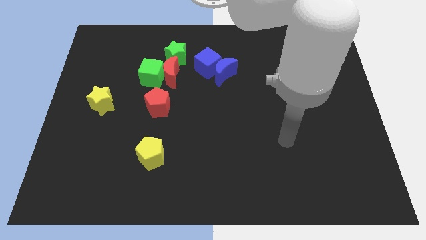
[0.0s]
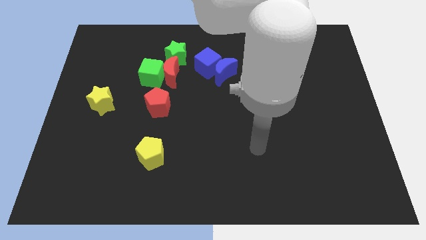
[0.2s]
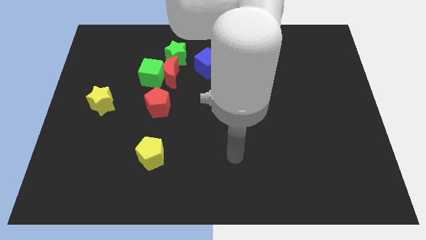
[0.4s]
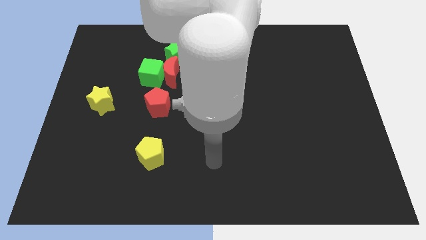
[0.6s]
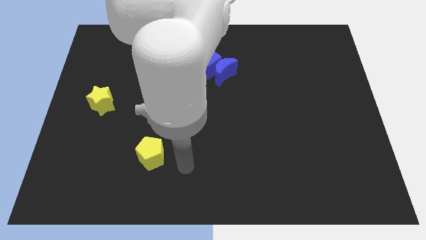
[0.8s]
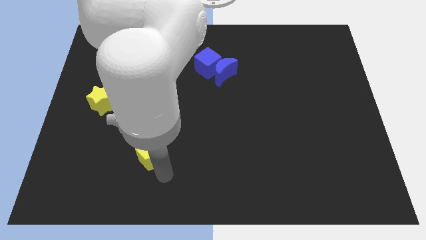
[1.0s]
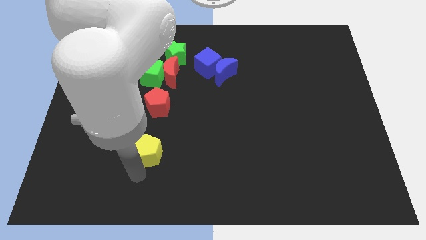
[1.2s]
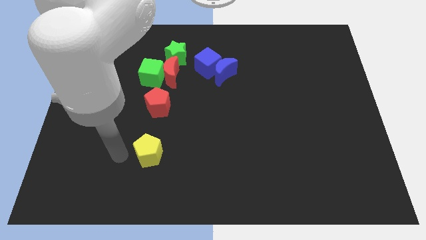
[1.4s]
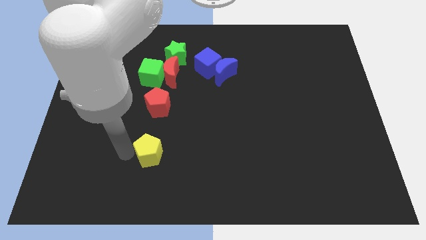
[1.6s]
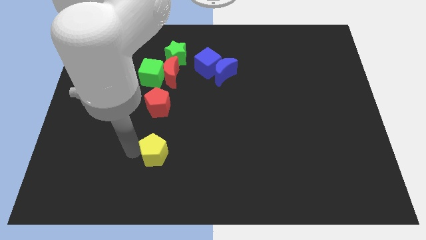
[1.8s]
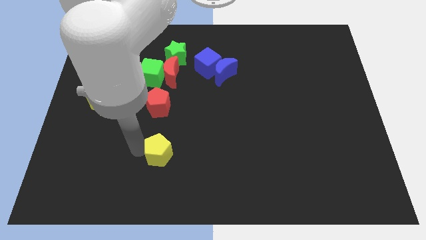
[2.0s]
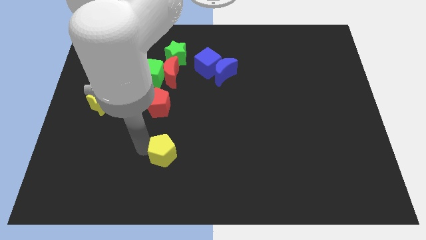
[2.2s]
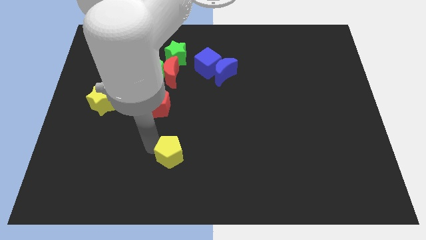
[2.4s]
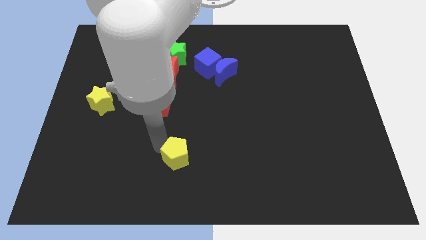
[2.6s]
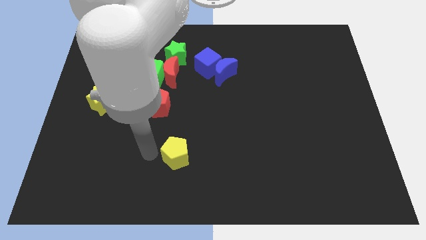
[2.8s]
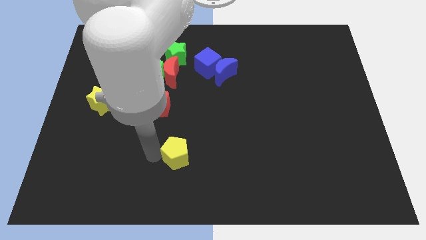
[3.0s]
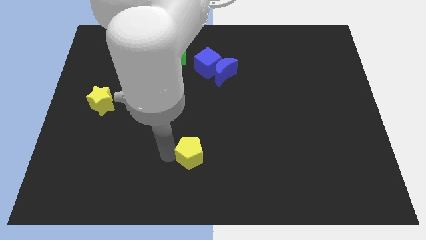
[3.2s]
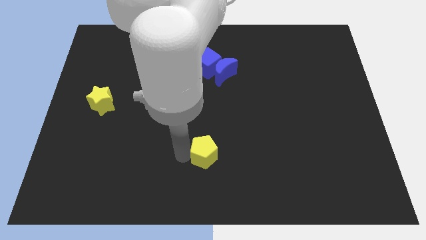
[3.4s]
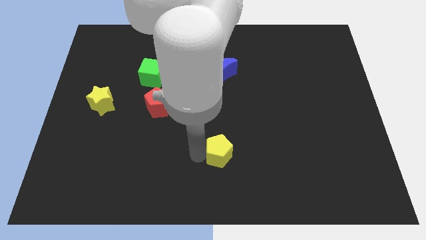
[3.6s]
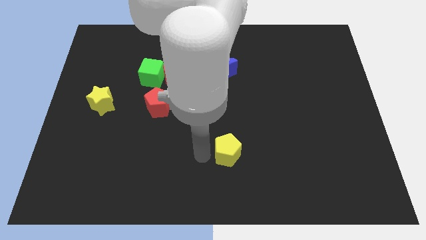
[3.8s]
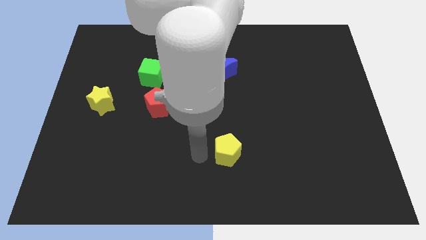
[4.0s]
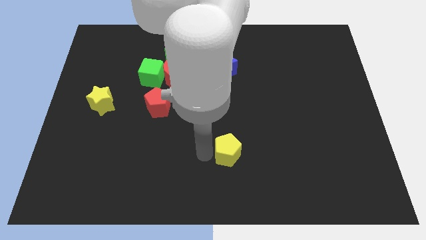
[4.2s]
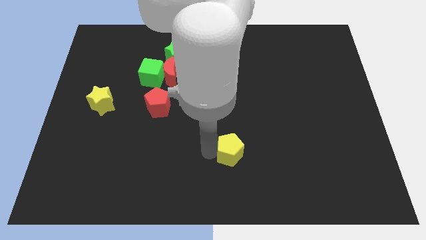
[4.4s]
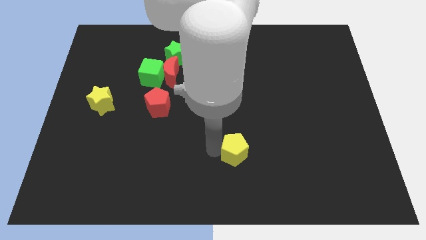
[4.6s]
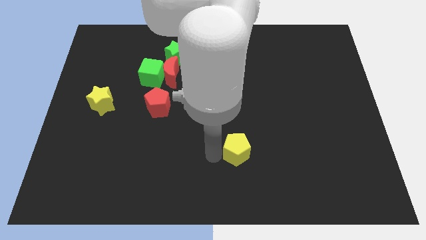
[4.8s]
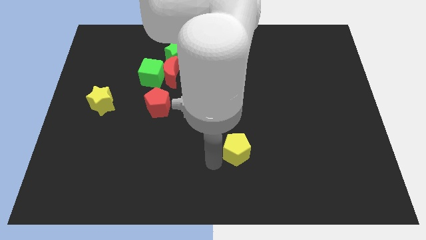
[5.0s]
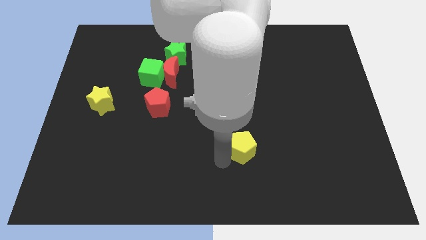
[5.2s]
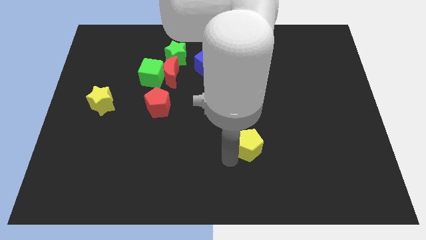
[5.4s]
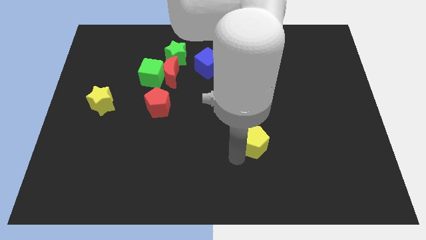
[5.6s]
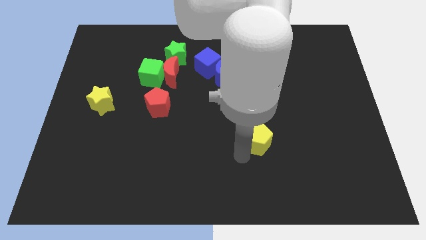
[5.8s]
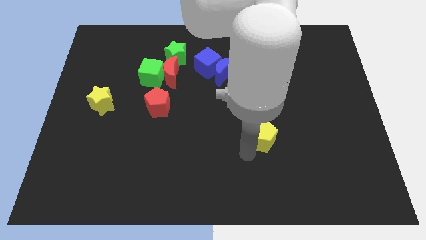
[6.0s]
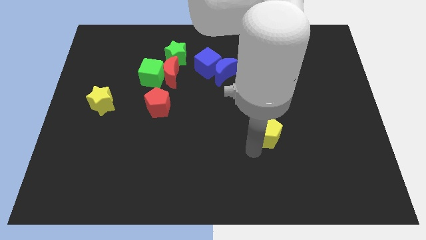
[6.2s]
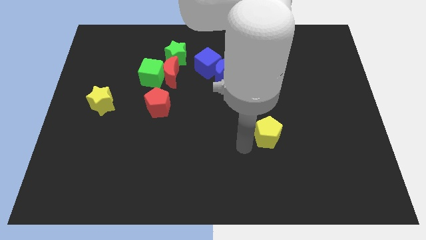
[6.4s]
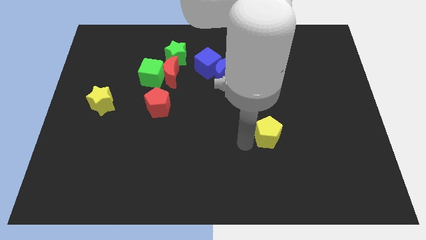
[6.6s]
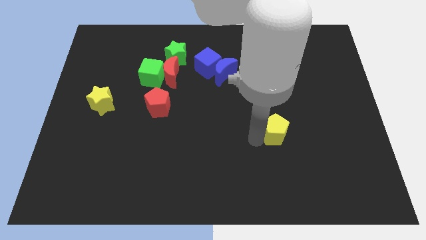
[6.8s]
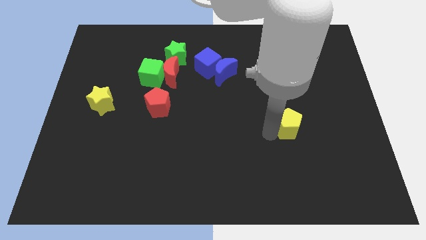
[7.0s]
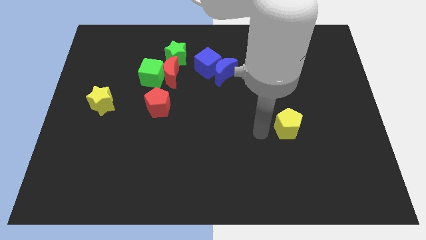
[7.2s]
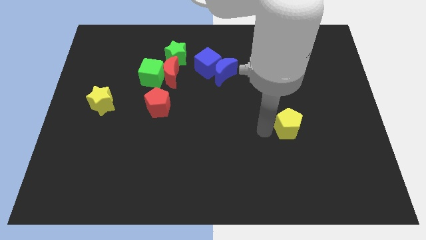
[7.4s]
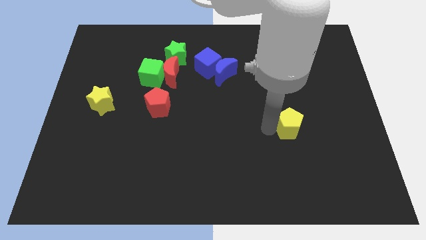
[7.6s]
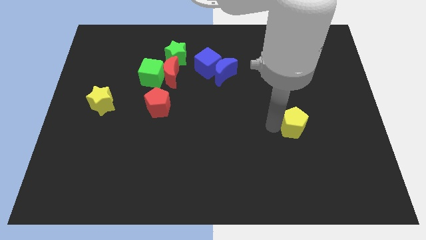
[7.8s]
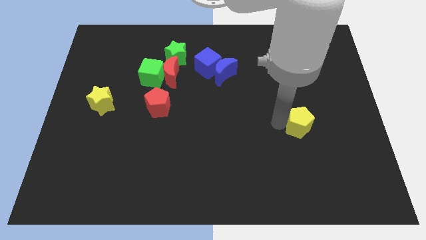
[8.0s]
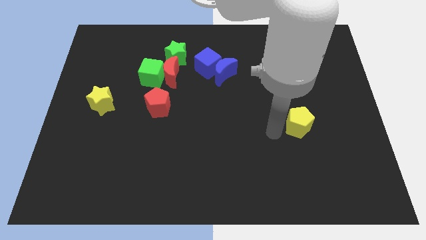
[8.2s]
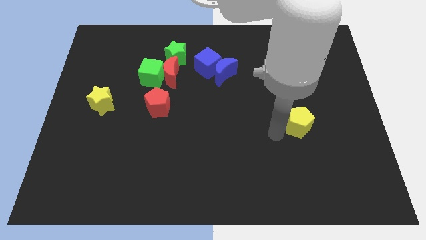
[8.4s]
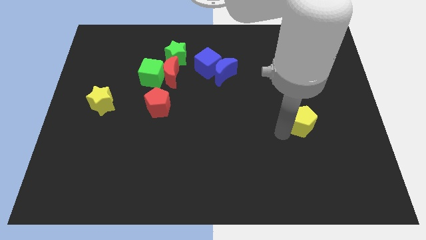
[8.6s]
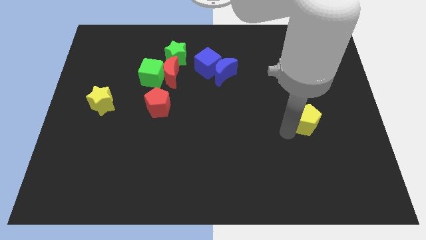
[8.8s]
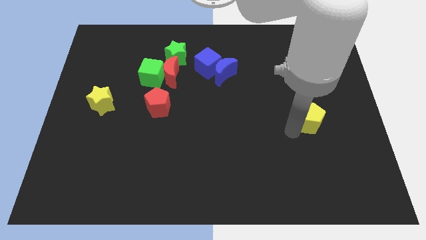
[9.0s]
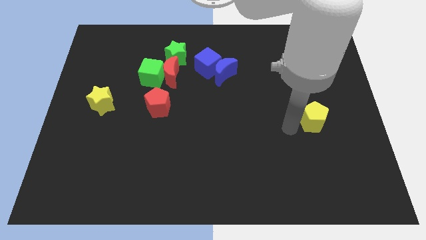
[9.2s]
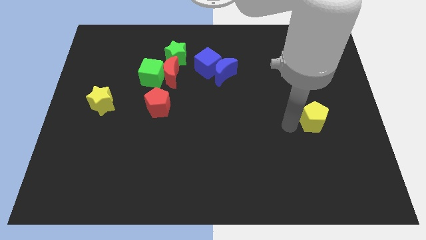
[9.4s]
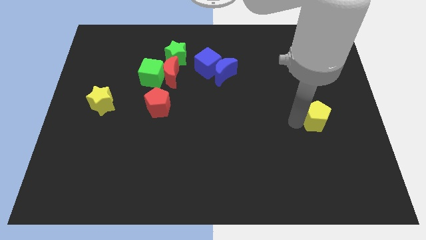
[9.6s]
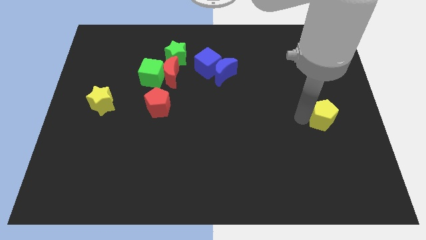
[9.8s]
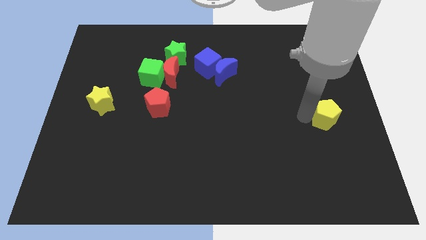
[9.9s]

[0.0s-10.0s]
put the yellow pentagon to the right side

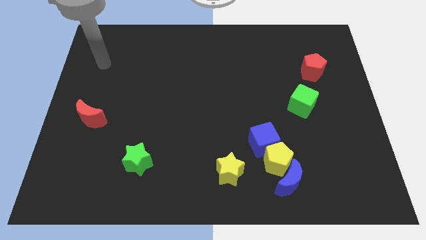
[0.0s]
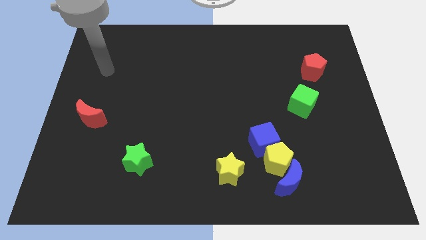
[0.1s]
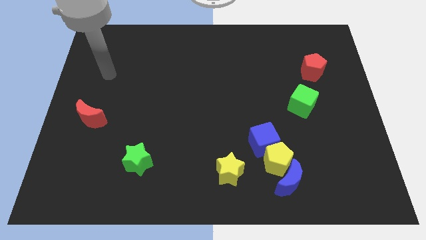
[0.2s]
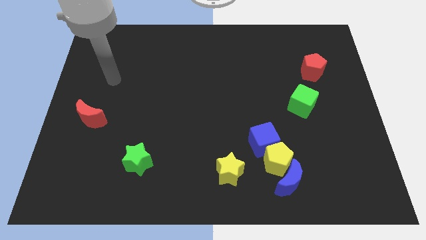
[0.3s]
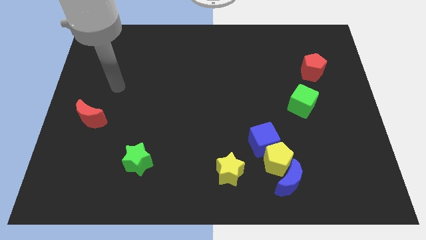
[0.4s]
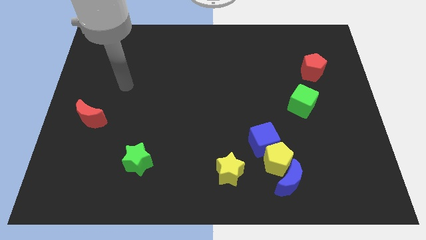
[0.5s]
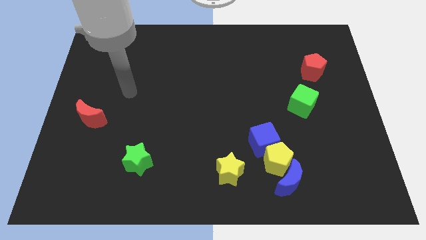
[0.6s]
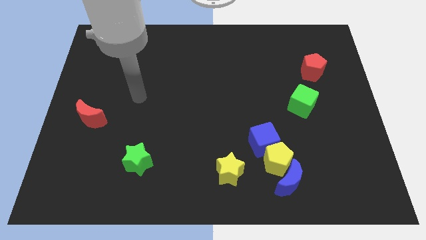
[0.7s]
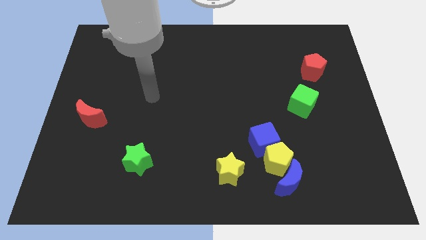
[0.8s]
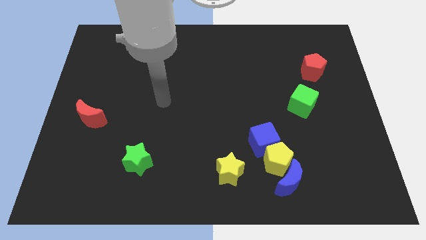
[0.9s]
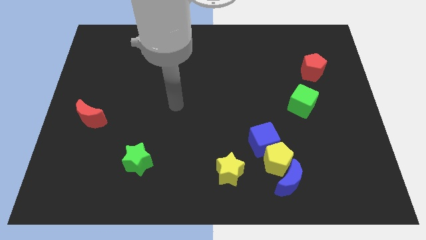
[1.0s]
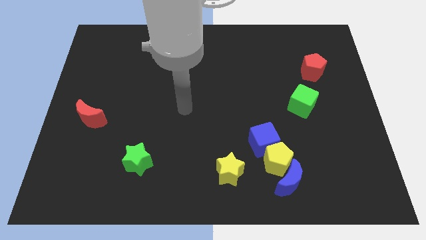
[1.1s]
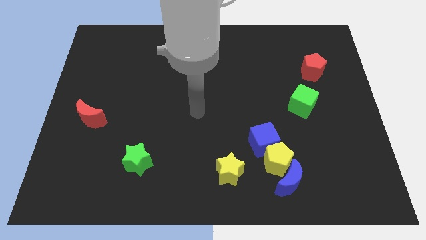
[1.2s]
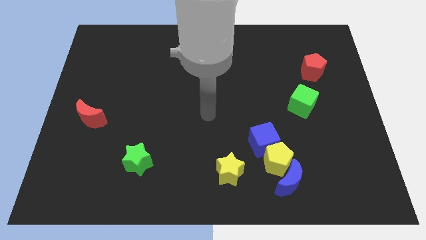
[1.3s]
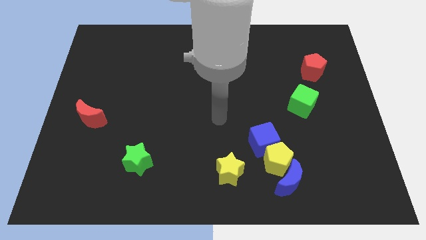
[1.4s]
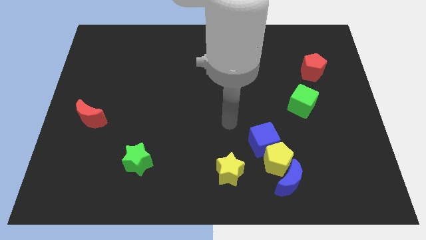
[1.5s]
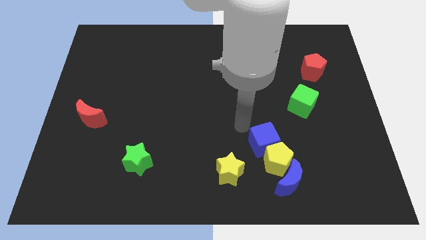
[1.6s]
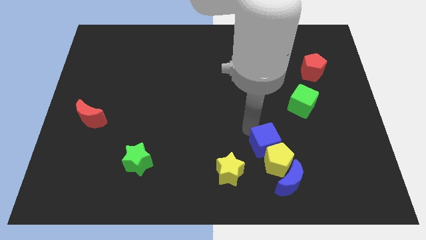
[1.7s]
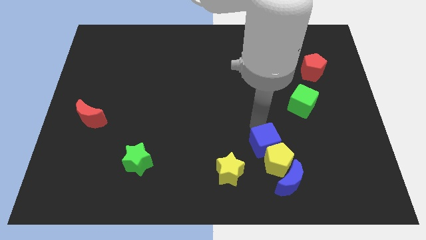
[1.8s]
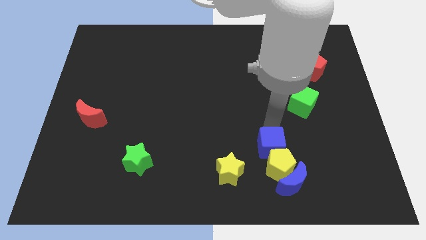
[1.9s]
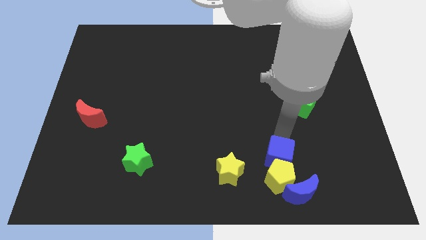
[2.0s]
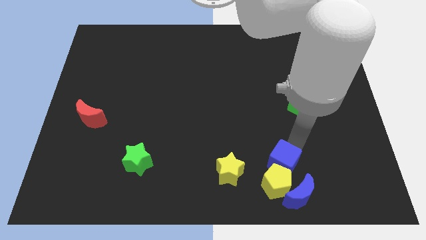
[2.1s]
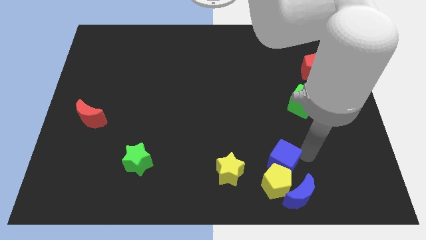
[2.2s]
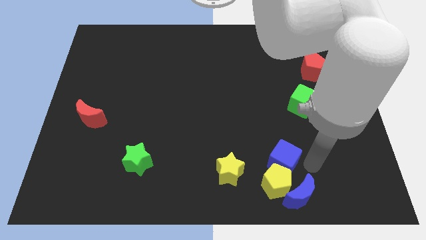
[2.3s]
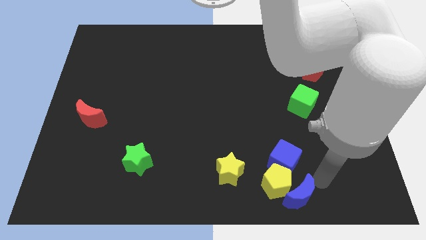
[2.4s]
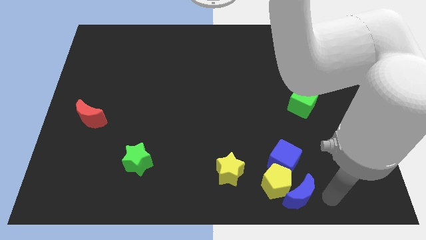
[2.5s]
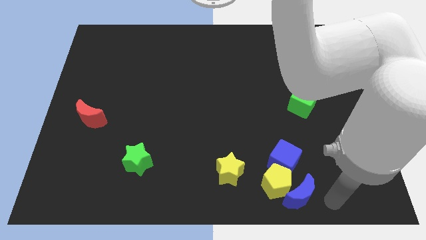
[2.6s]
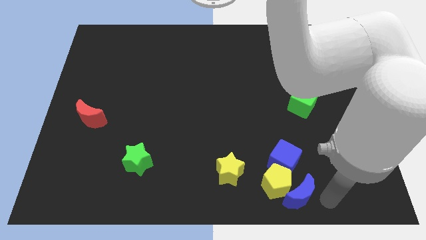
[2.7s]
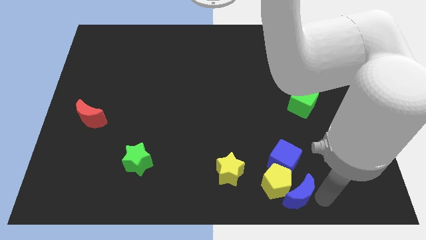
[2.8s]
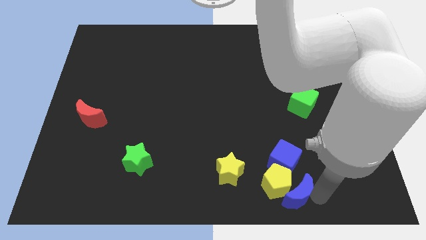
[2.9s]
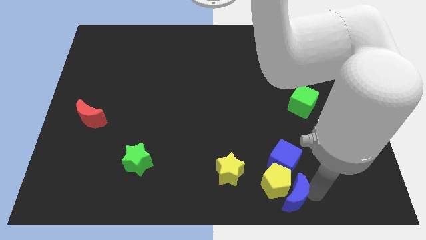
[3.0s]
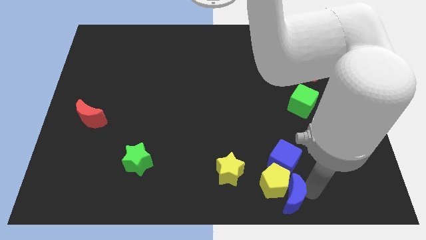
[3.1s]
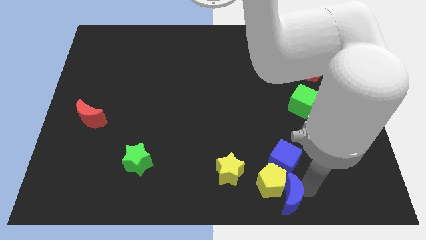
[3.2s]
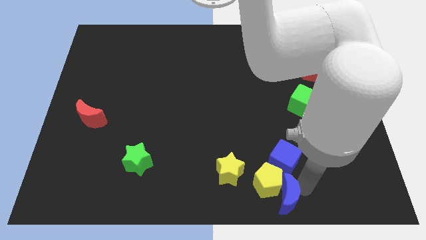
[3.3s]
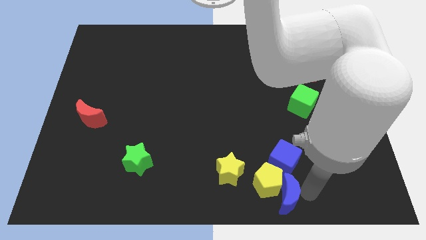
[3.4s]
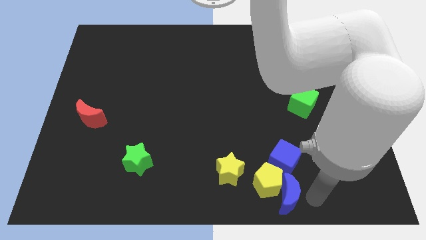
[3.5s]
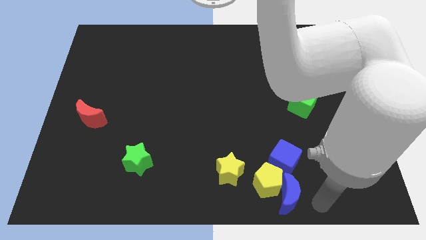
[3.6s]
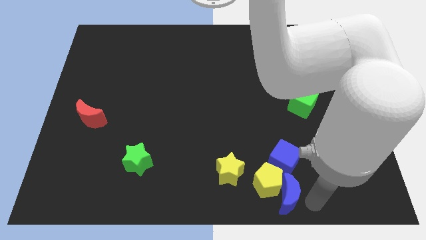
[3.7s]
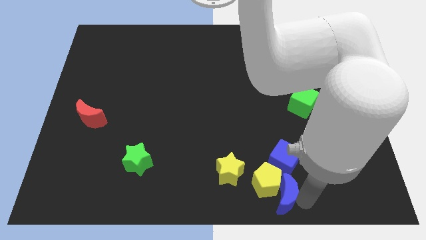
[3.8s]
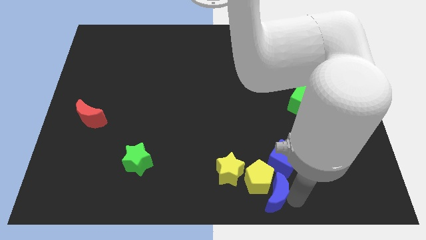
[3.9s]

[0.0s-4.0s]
slide the blue moon to the bottom side
